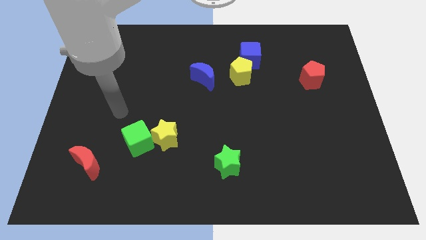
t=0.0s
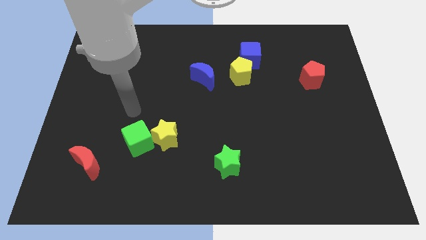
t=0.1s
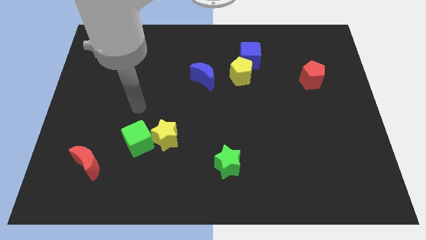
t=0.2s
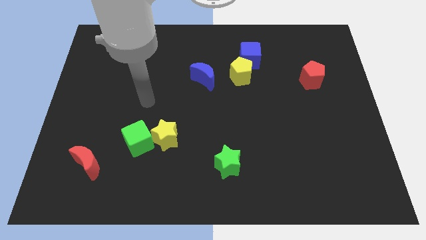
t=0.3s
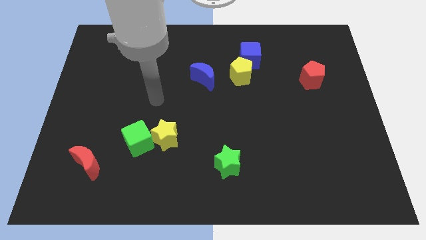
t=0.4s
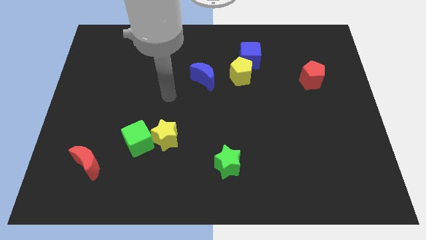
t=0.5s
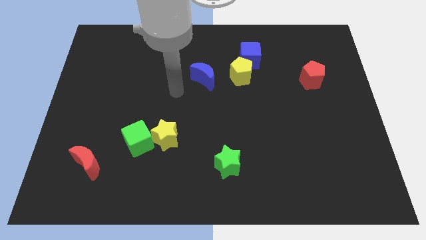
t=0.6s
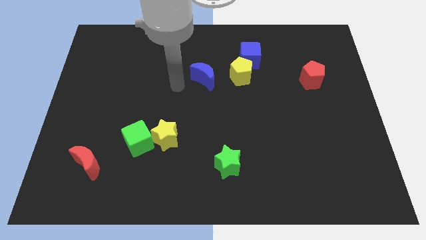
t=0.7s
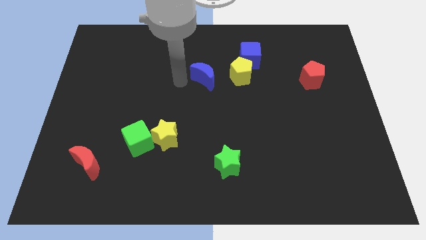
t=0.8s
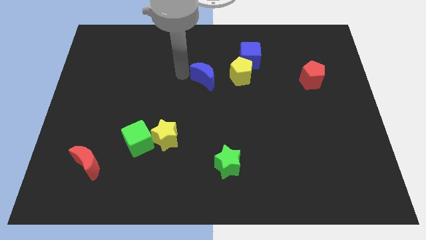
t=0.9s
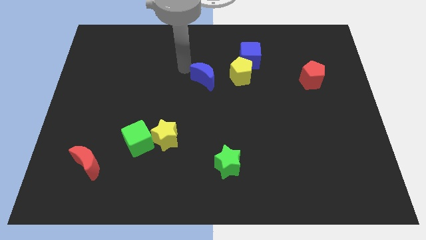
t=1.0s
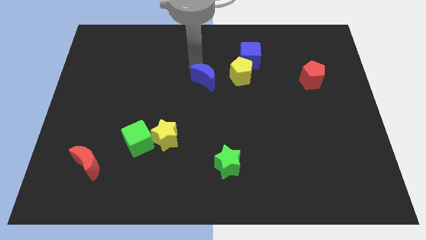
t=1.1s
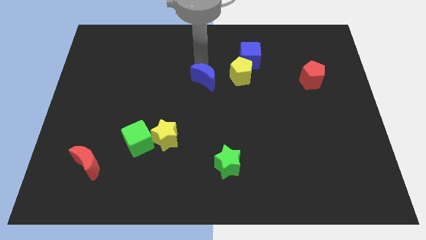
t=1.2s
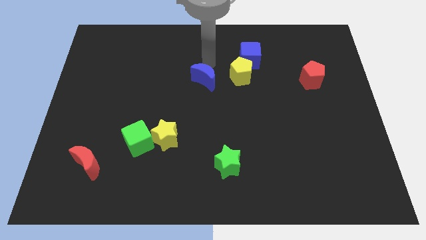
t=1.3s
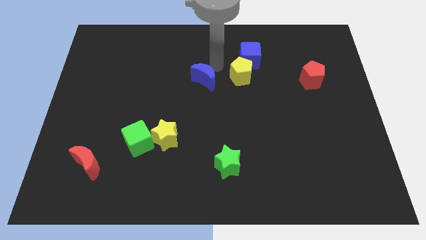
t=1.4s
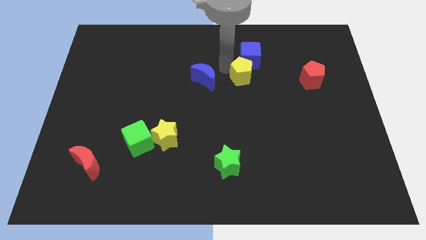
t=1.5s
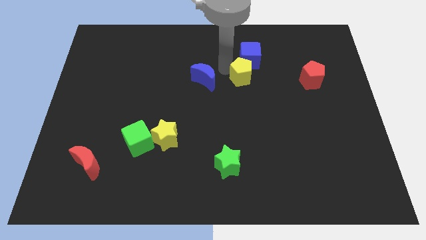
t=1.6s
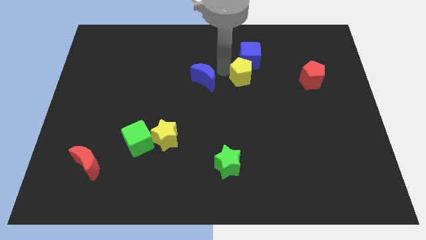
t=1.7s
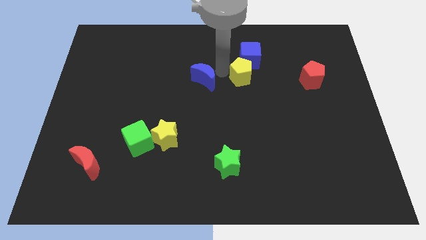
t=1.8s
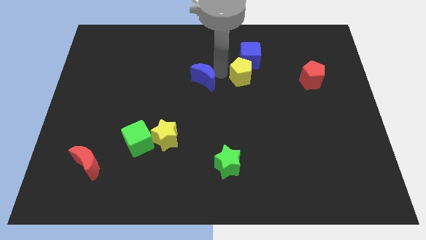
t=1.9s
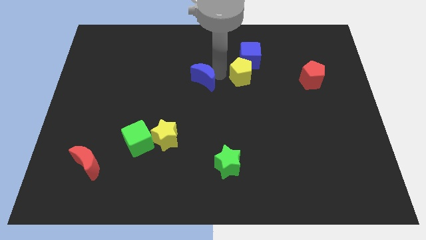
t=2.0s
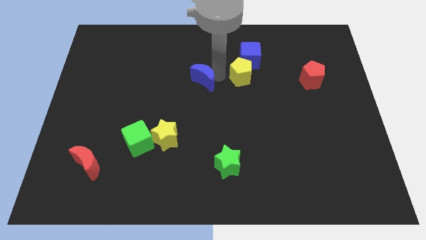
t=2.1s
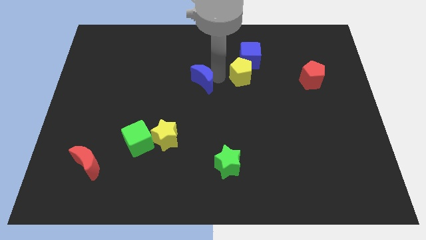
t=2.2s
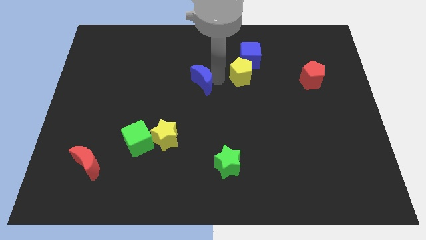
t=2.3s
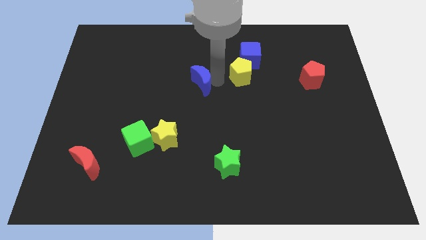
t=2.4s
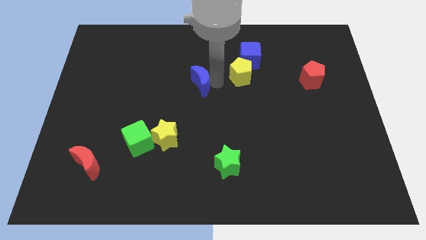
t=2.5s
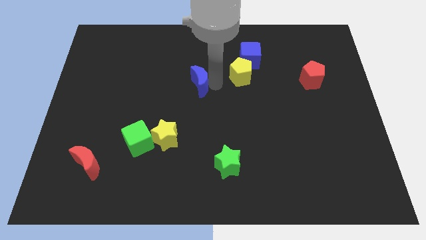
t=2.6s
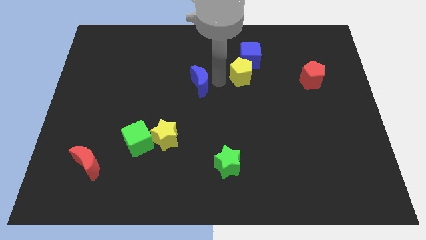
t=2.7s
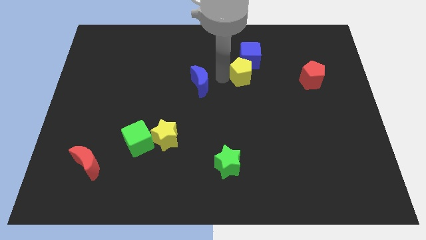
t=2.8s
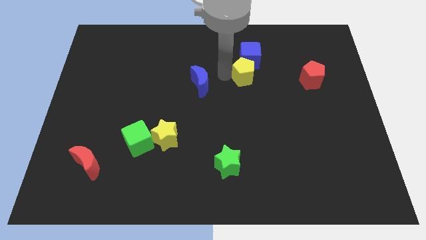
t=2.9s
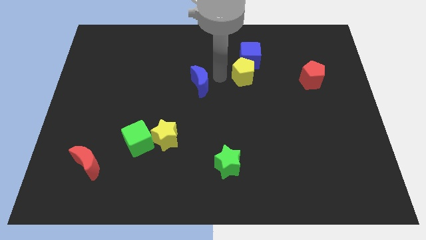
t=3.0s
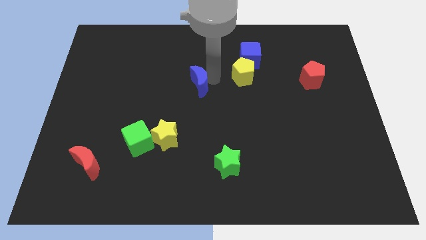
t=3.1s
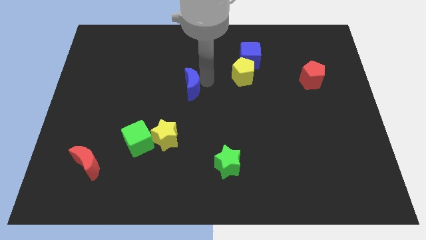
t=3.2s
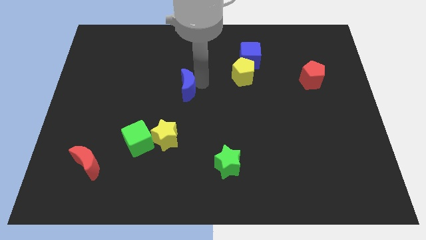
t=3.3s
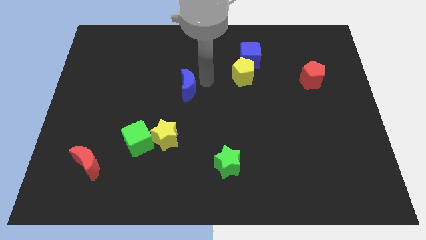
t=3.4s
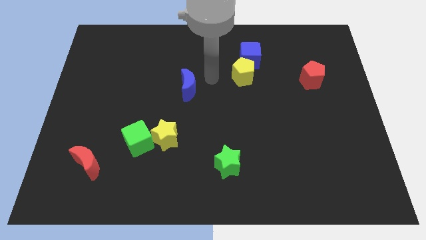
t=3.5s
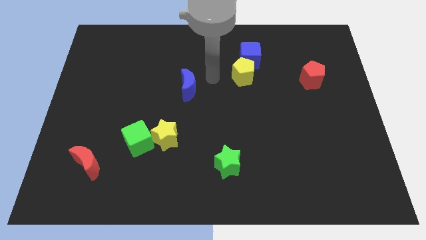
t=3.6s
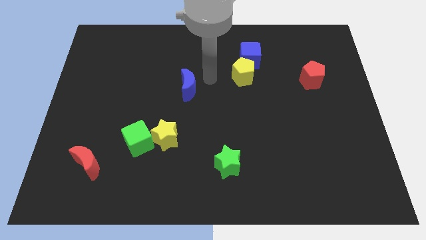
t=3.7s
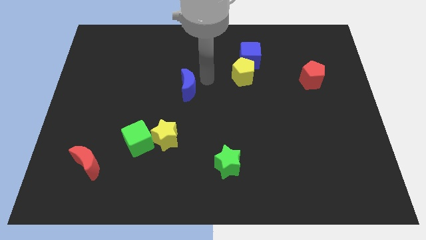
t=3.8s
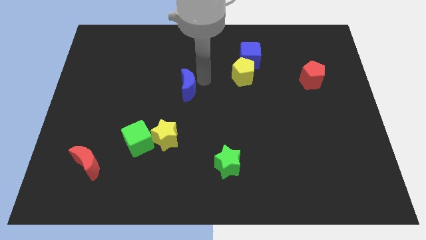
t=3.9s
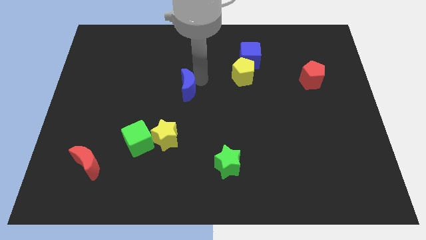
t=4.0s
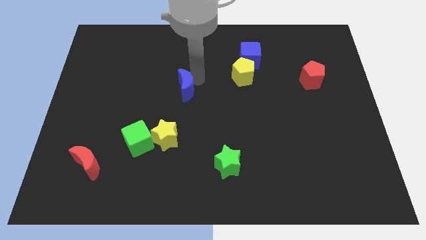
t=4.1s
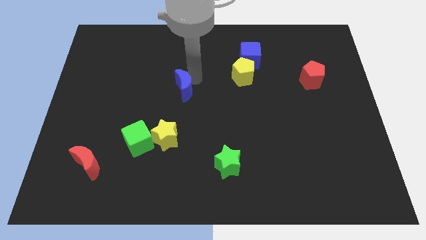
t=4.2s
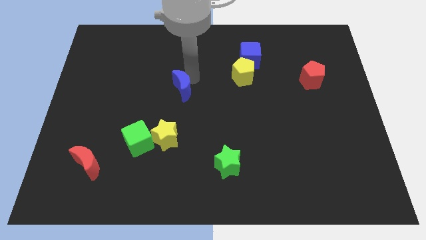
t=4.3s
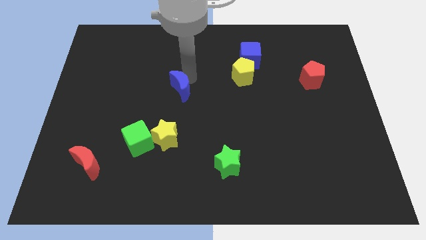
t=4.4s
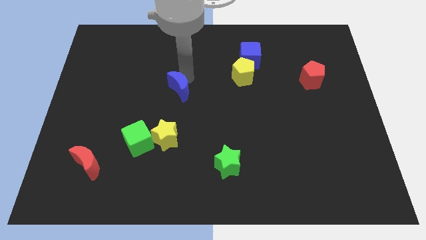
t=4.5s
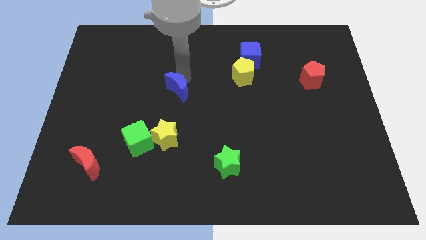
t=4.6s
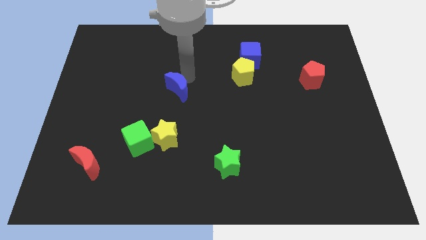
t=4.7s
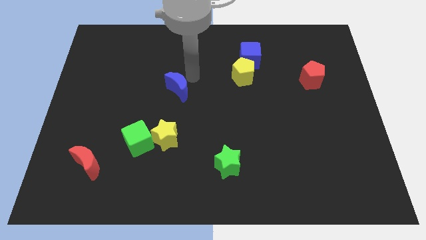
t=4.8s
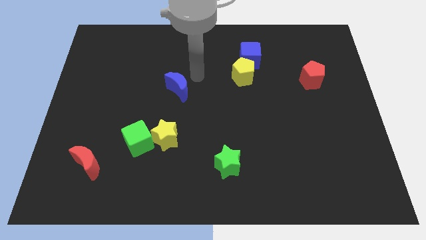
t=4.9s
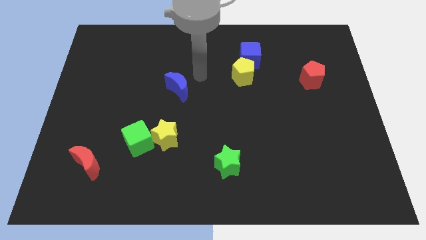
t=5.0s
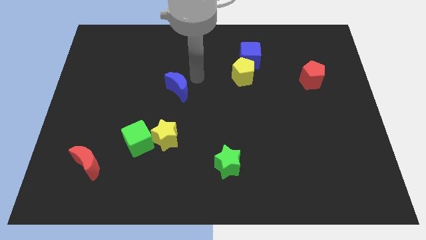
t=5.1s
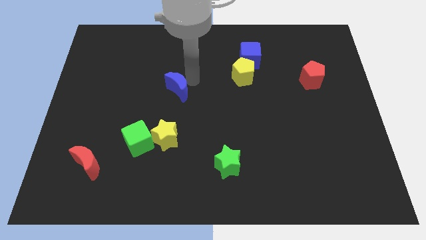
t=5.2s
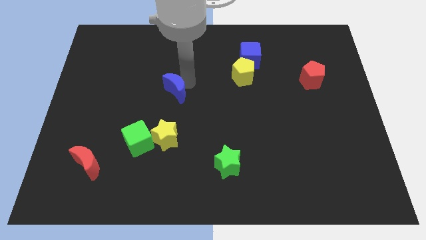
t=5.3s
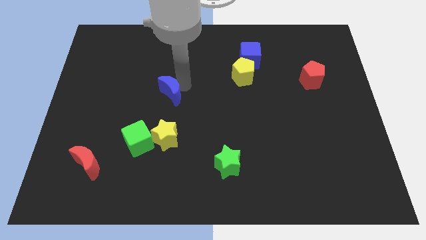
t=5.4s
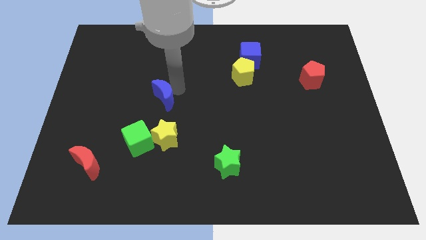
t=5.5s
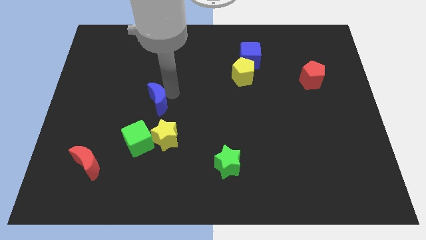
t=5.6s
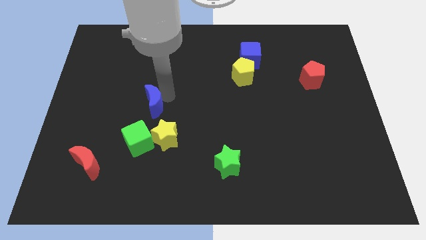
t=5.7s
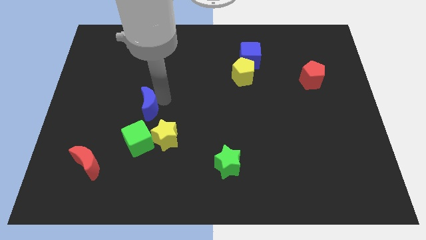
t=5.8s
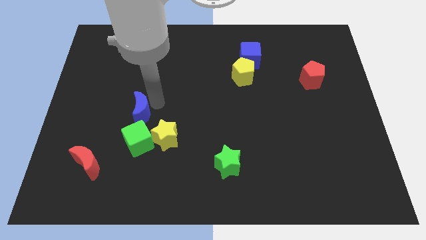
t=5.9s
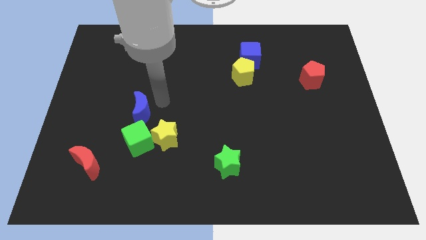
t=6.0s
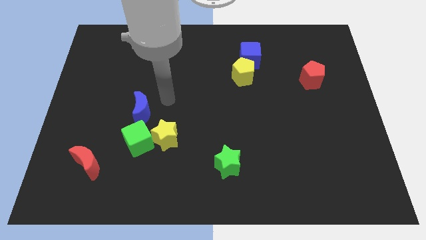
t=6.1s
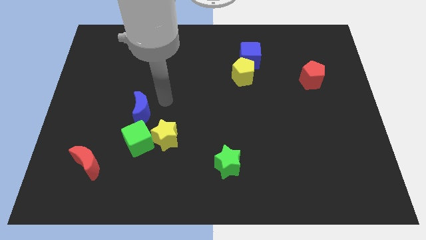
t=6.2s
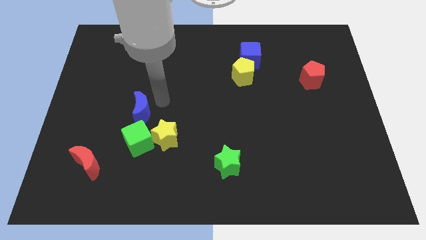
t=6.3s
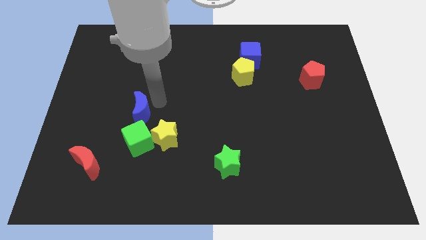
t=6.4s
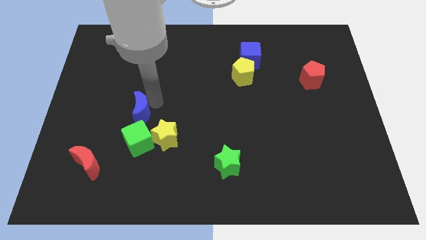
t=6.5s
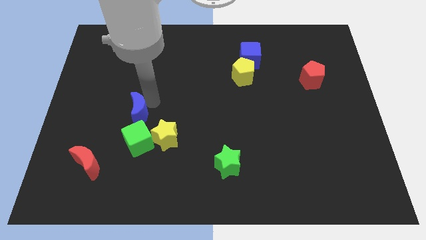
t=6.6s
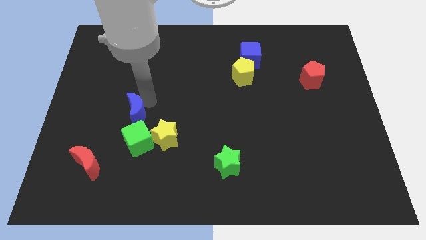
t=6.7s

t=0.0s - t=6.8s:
put the blue moon to the top left of the green cube

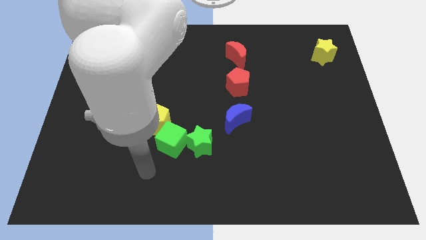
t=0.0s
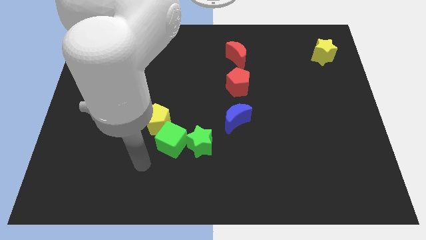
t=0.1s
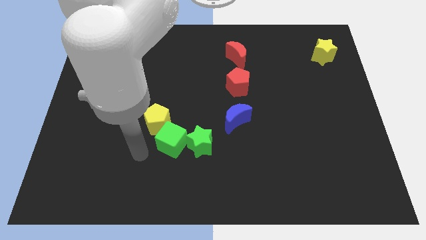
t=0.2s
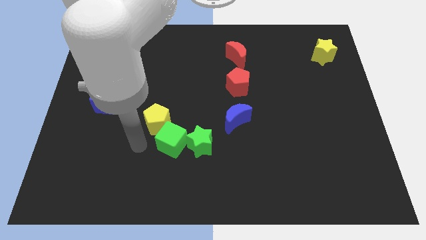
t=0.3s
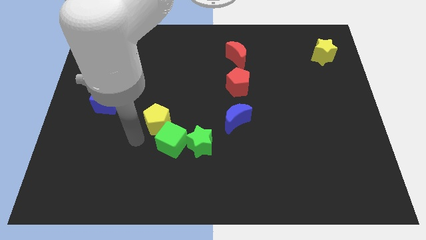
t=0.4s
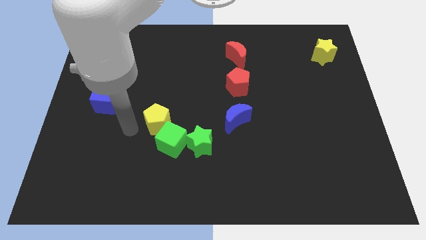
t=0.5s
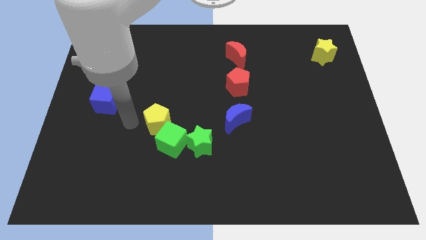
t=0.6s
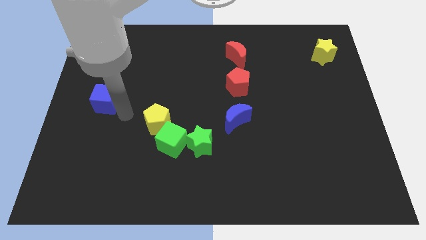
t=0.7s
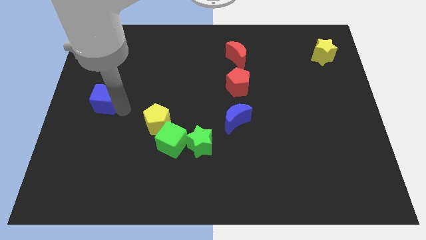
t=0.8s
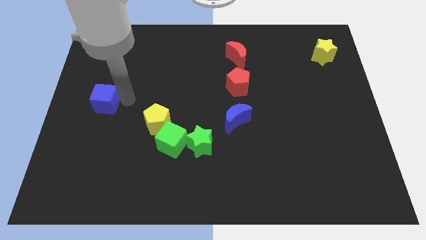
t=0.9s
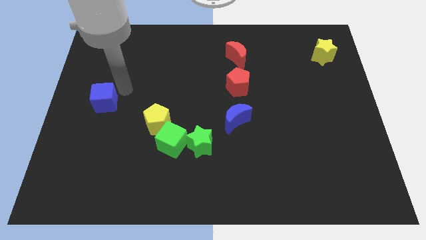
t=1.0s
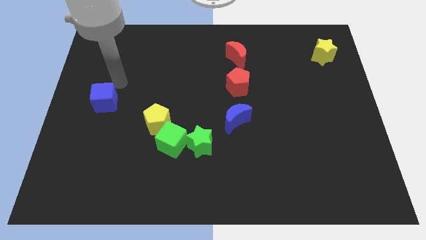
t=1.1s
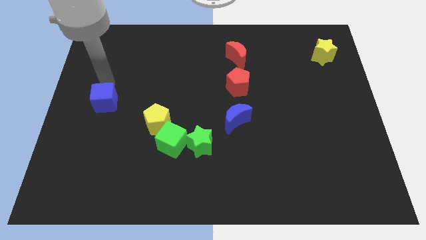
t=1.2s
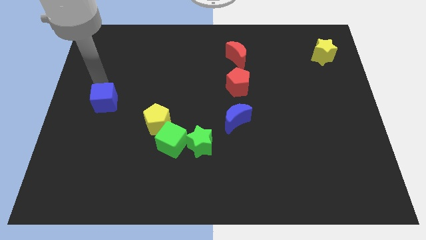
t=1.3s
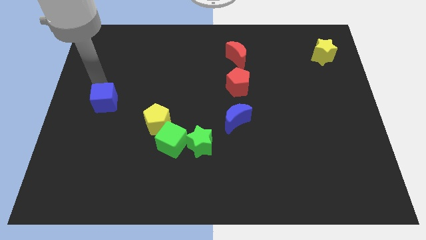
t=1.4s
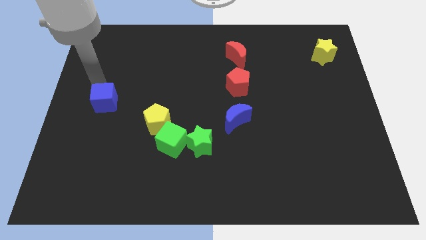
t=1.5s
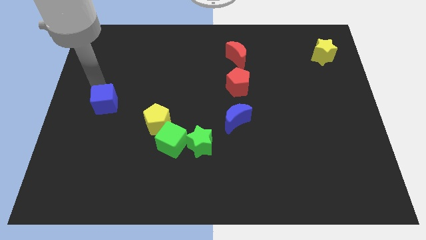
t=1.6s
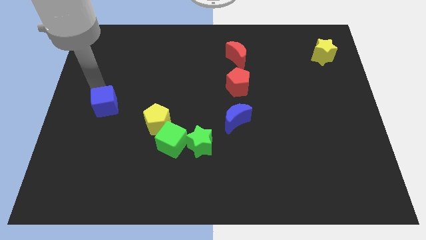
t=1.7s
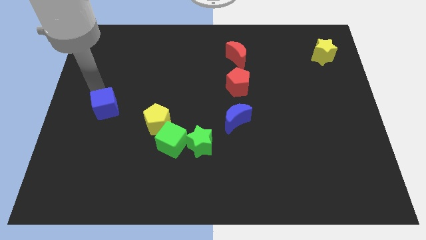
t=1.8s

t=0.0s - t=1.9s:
slide the blue cube to the left of the yellow pentagon
